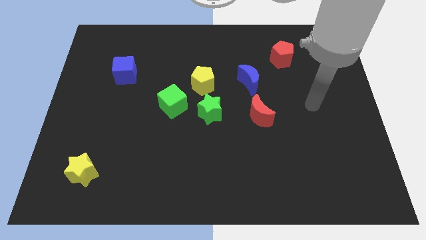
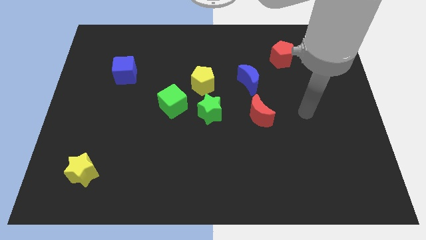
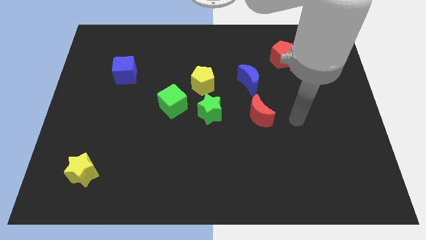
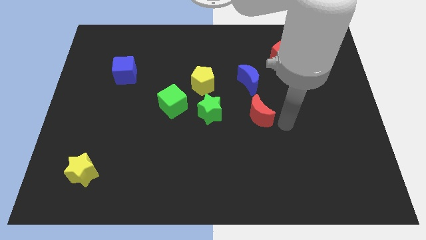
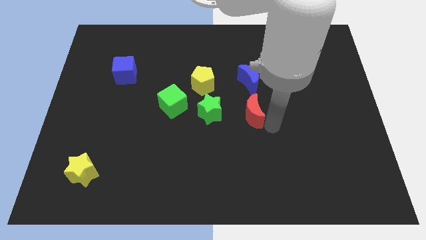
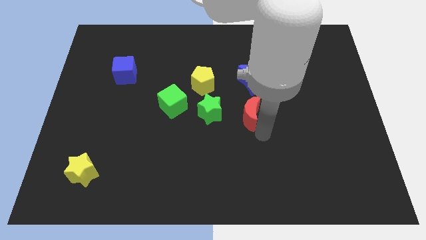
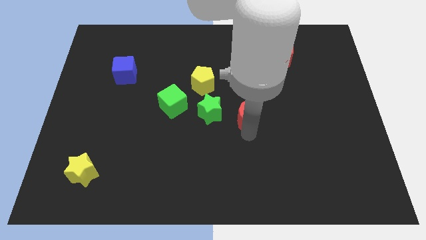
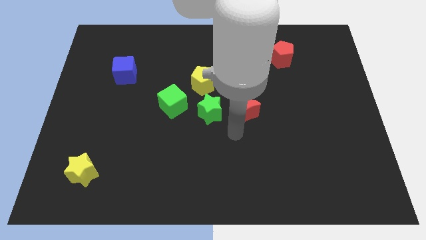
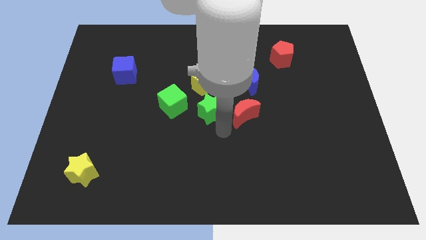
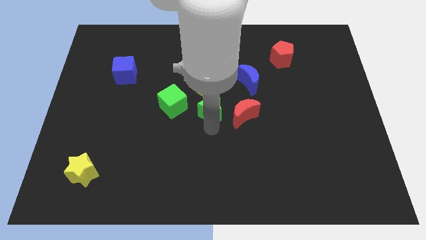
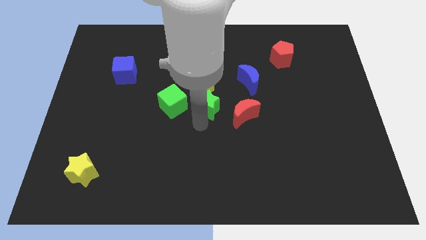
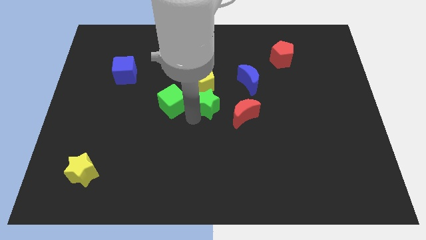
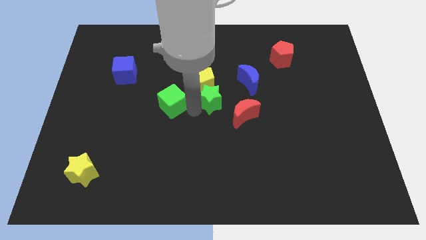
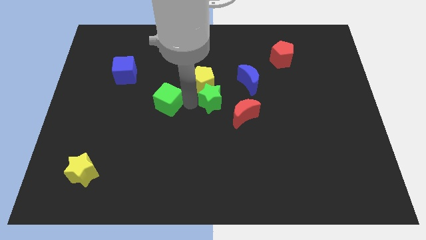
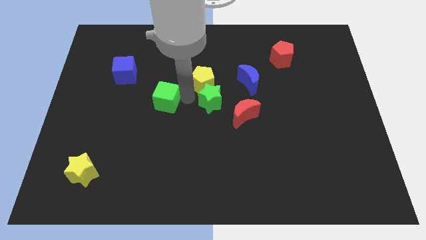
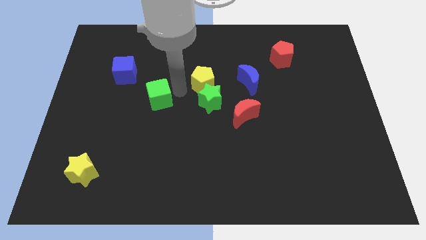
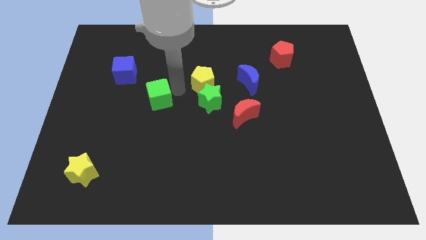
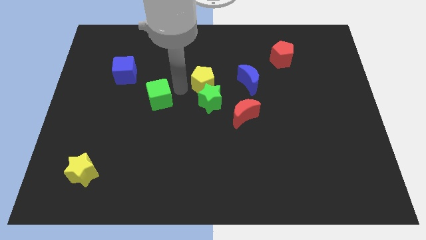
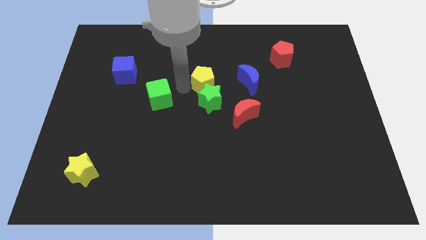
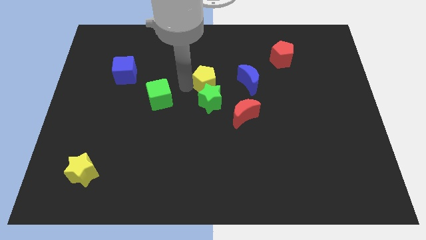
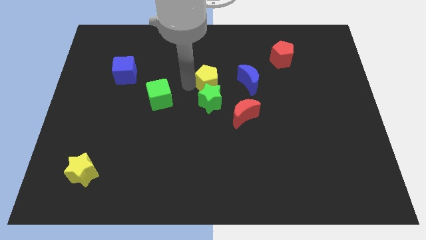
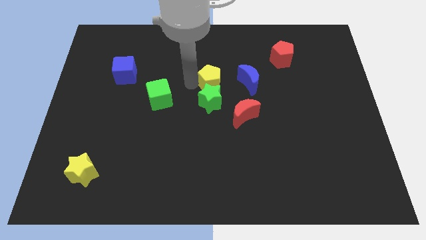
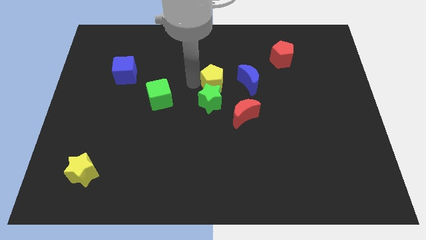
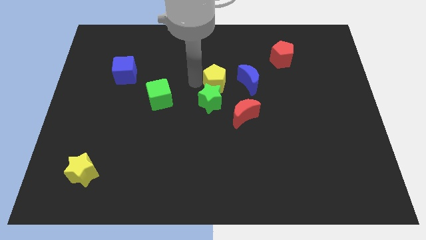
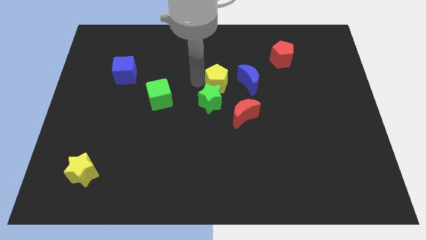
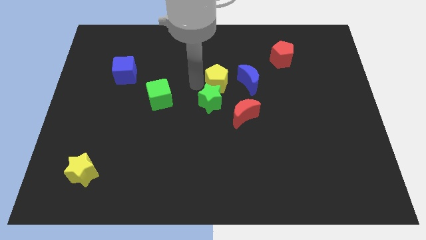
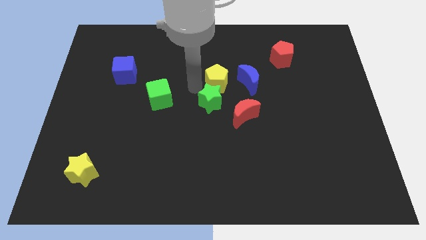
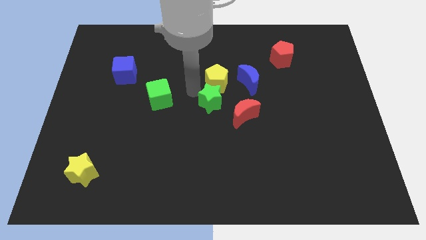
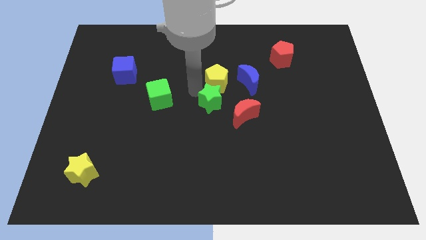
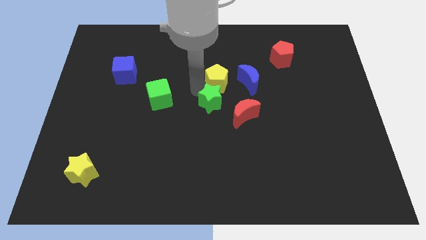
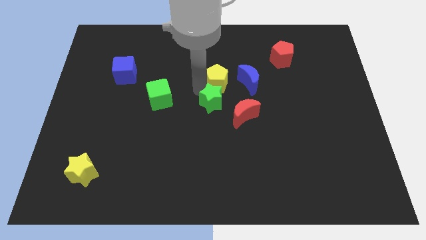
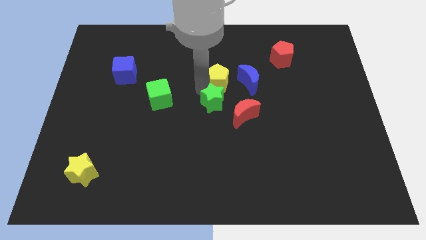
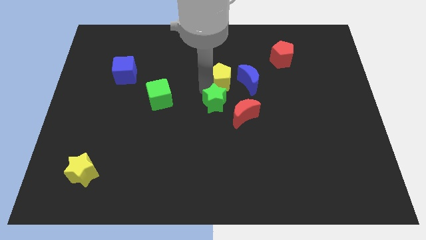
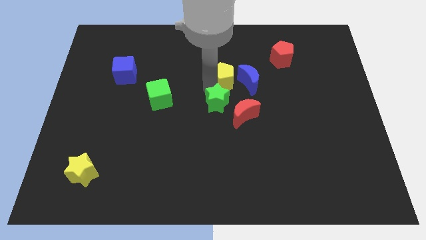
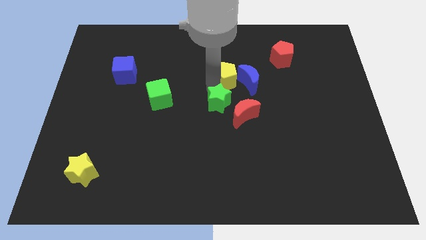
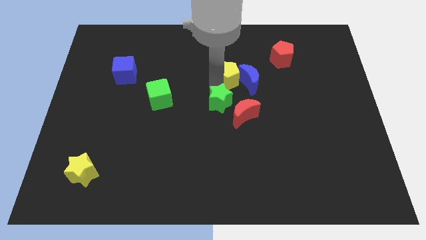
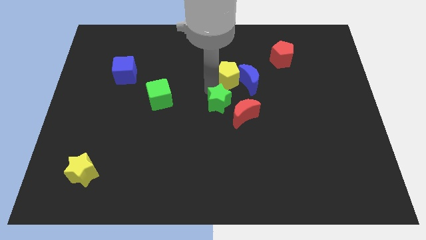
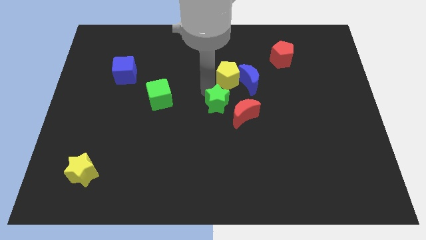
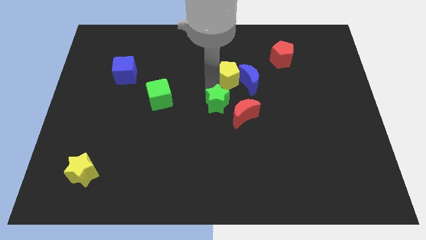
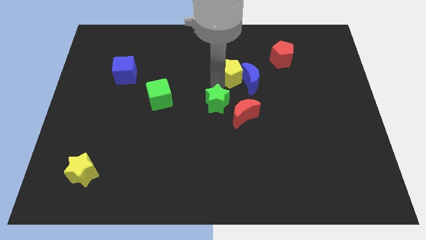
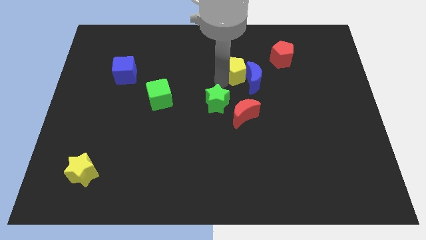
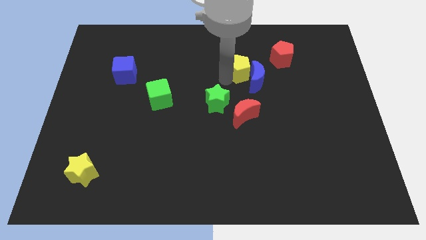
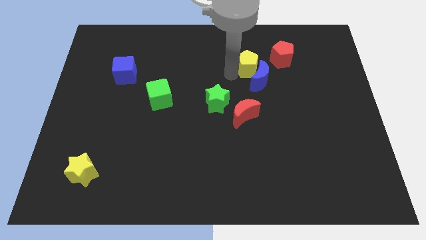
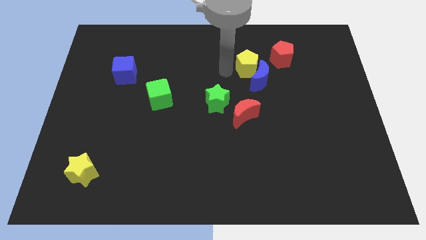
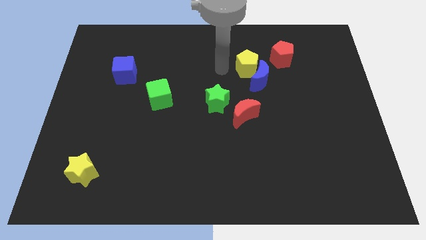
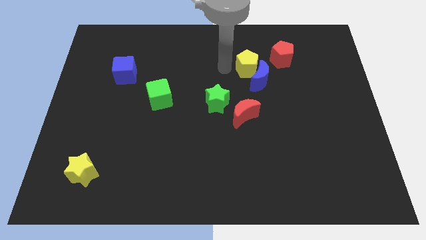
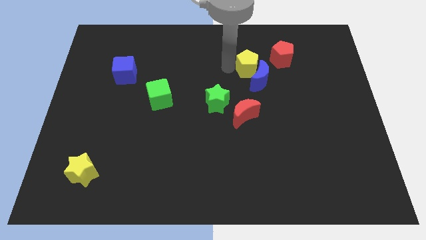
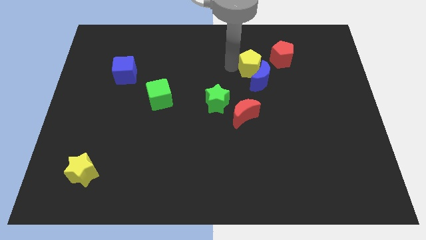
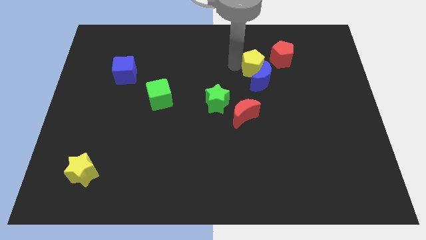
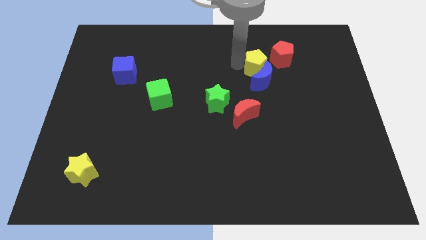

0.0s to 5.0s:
push the yellow pentagon to the top right of the blue moon

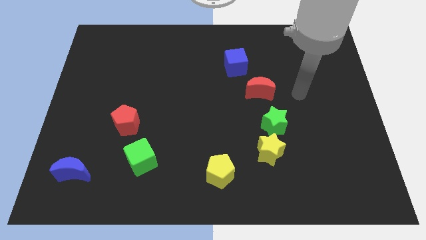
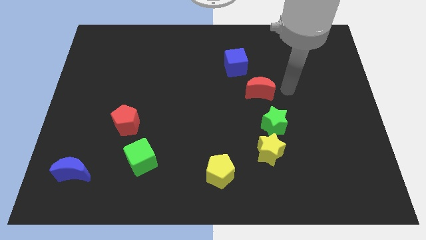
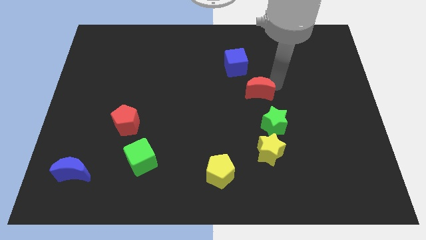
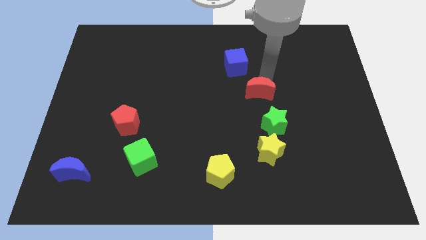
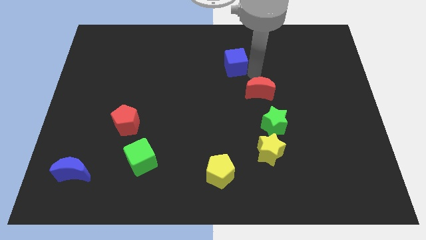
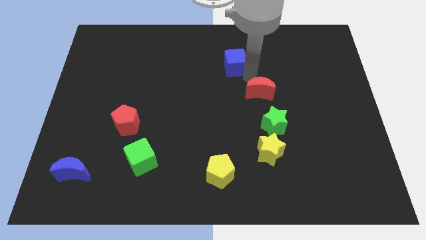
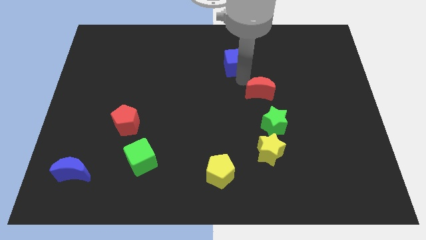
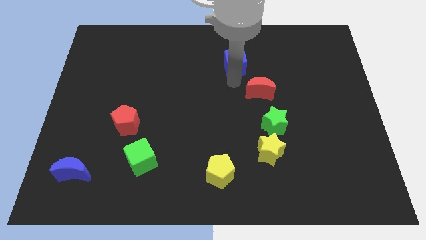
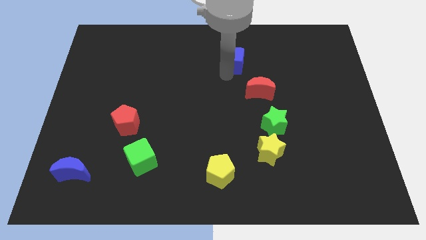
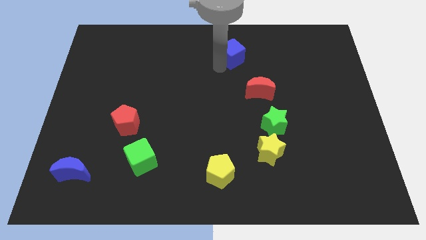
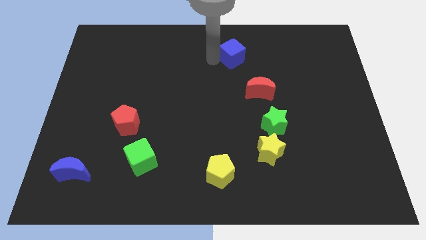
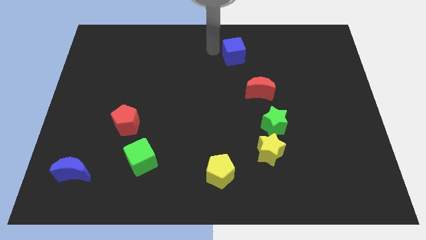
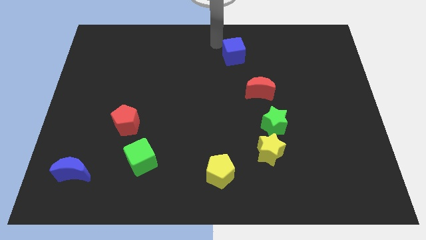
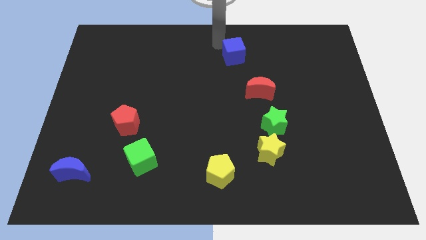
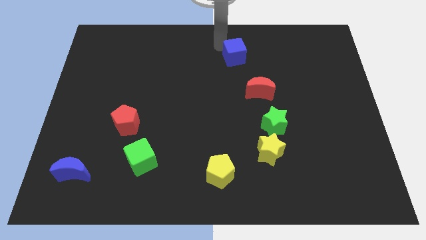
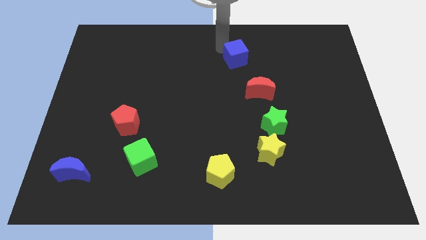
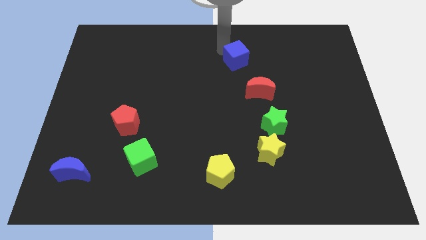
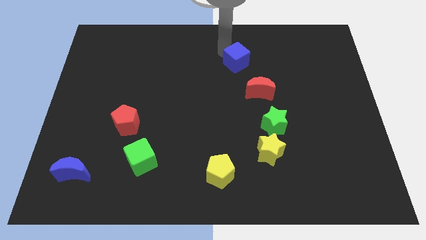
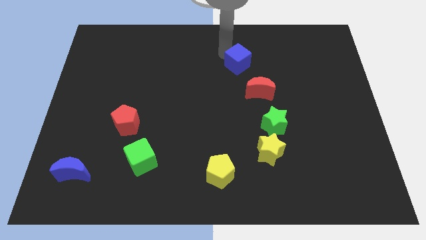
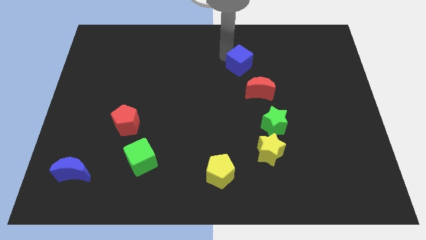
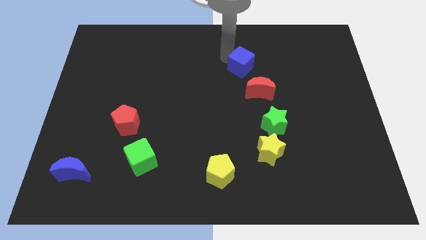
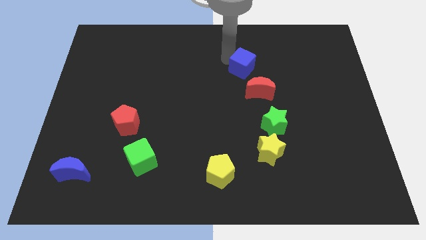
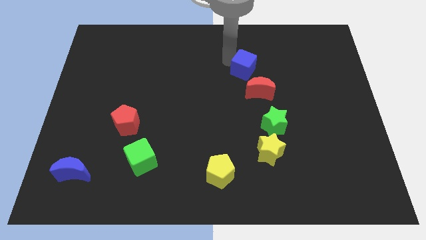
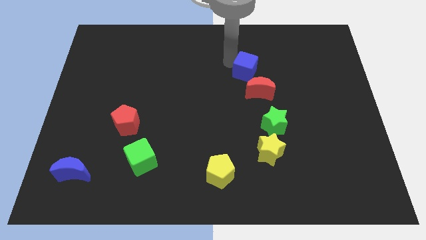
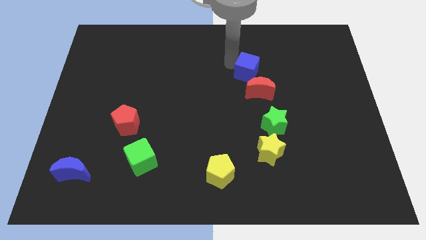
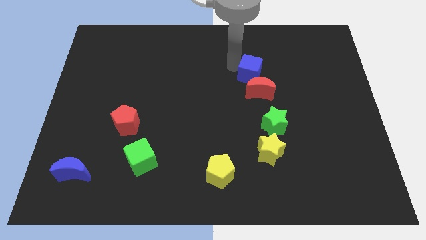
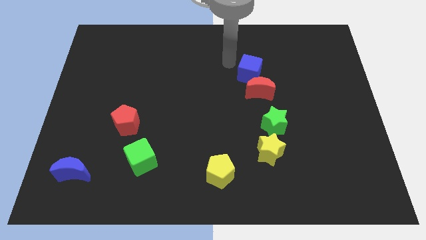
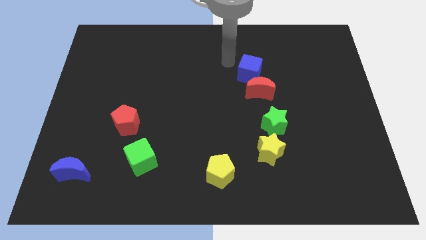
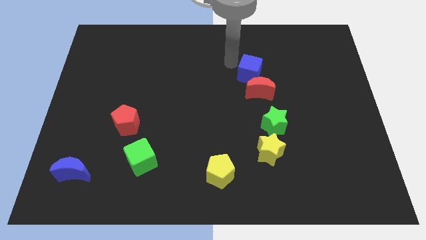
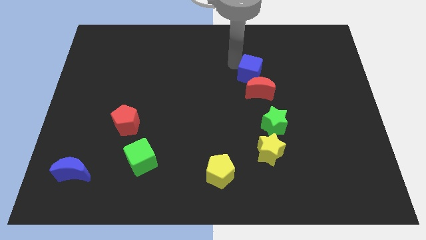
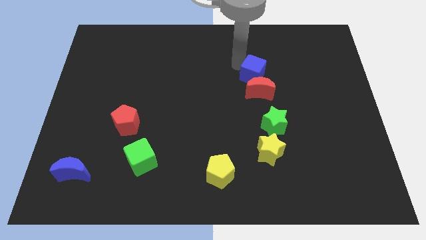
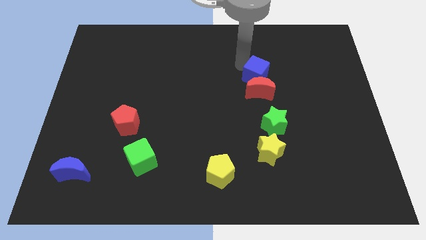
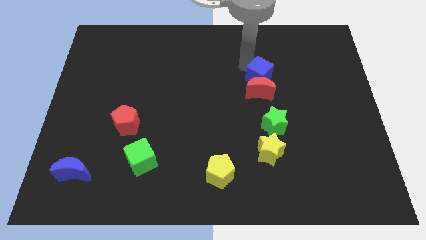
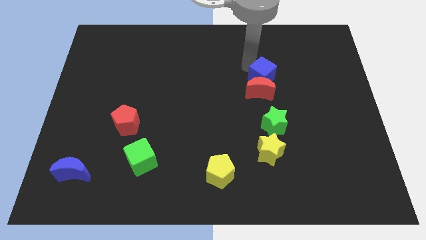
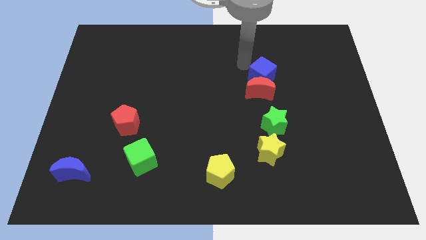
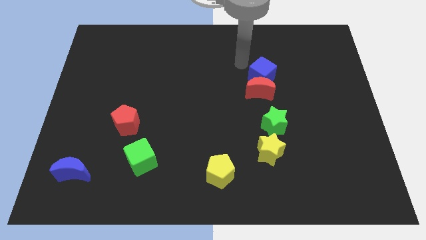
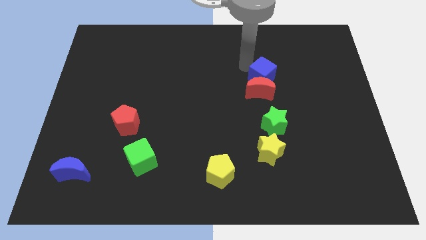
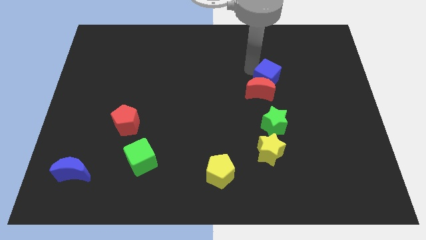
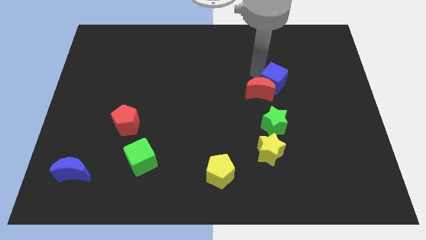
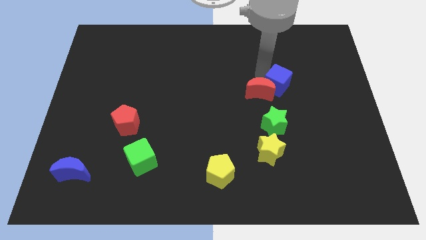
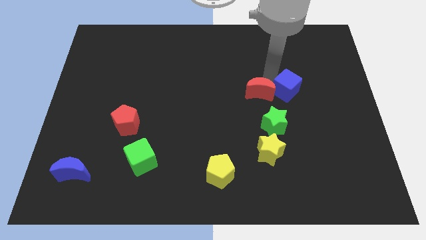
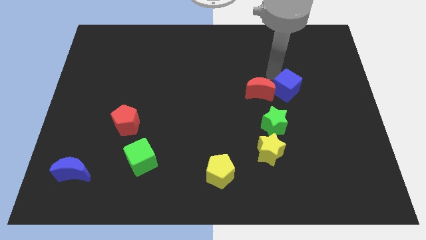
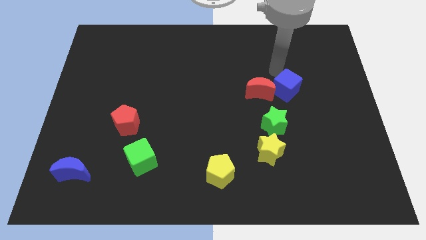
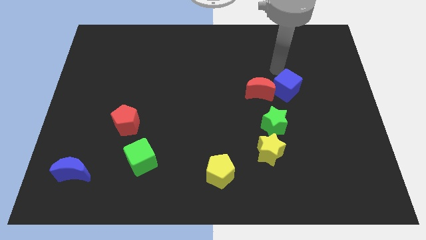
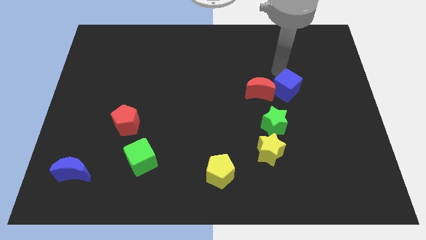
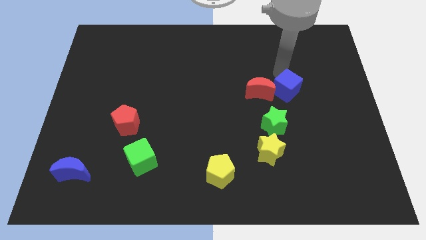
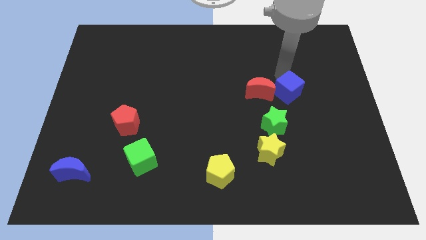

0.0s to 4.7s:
move the blue cube to the top right side of the green star
